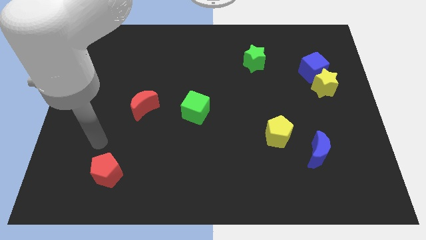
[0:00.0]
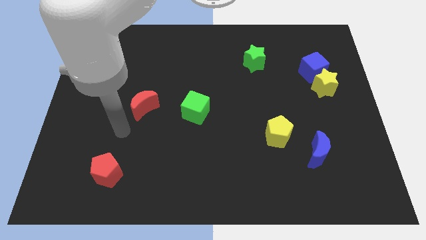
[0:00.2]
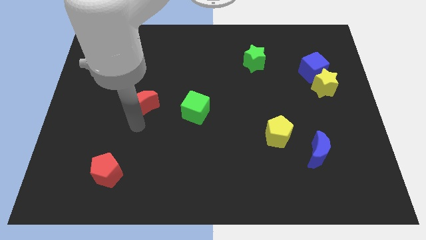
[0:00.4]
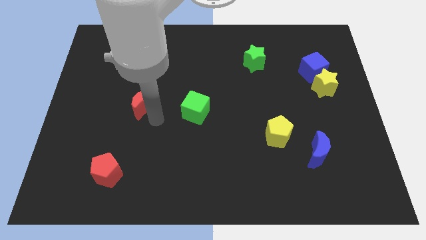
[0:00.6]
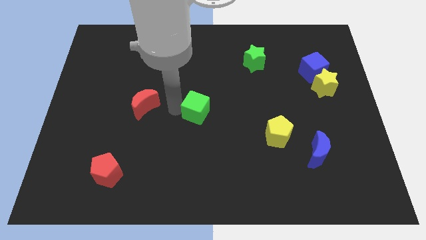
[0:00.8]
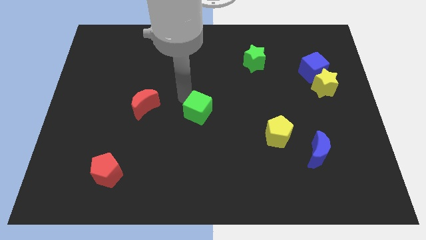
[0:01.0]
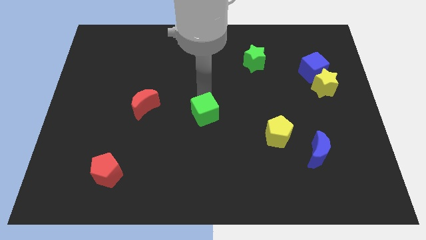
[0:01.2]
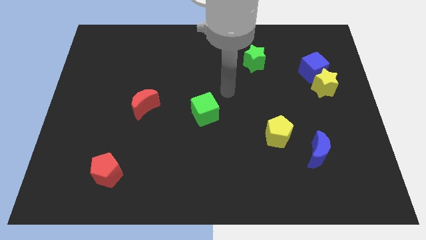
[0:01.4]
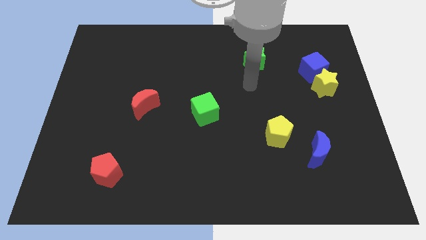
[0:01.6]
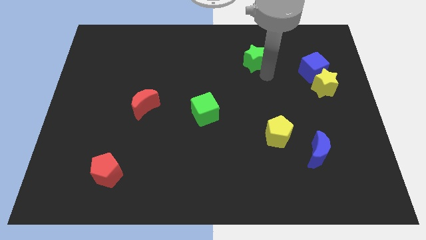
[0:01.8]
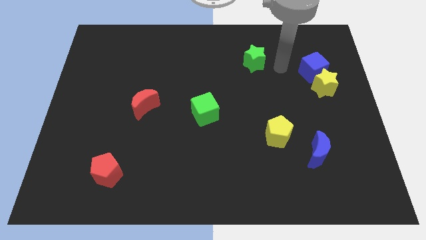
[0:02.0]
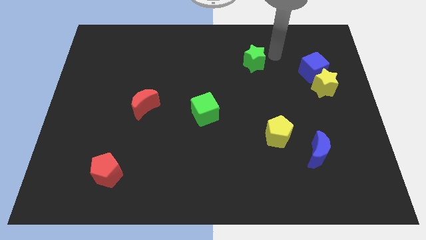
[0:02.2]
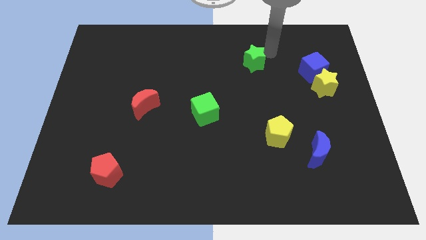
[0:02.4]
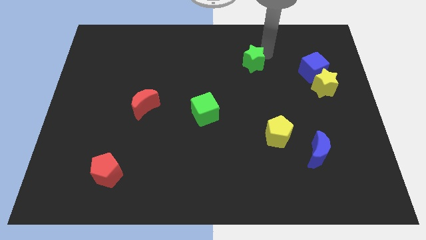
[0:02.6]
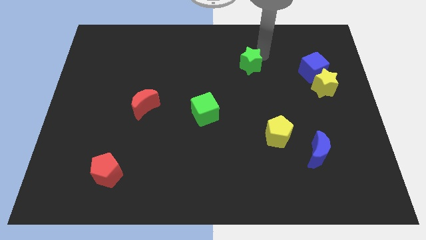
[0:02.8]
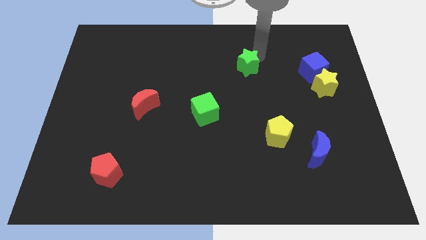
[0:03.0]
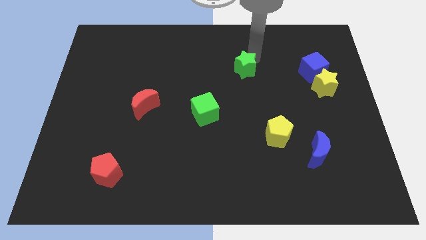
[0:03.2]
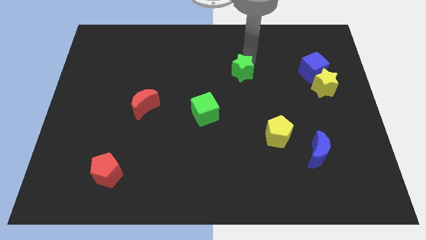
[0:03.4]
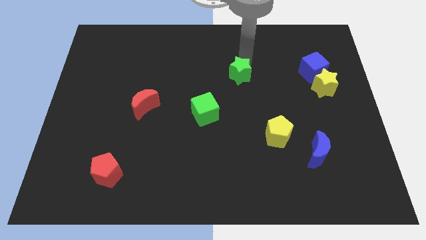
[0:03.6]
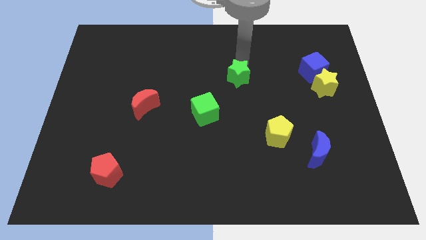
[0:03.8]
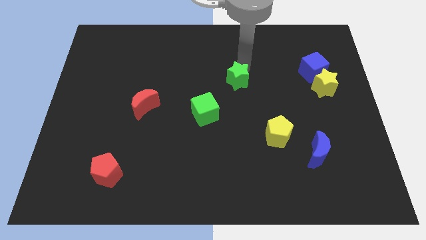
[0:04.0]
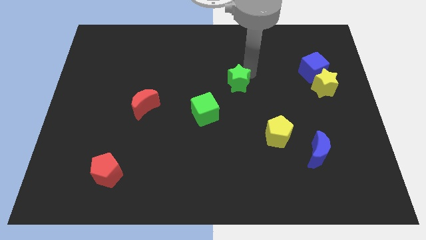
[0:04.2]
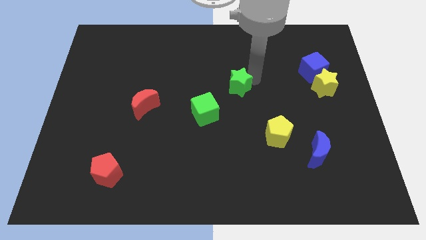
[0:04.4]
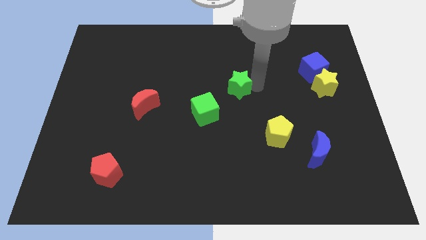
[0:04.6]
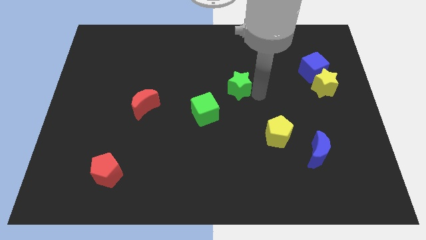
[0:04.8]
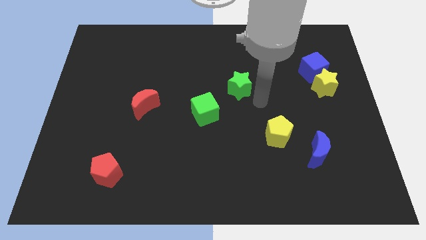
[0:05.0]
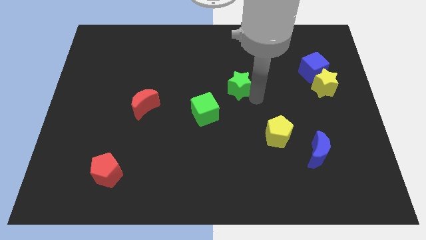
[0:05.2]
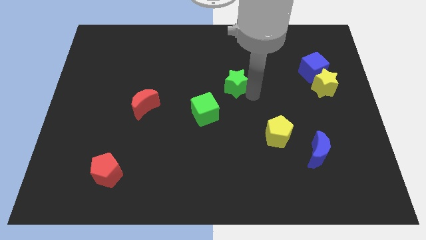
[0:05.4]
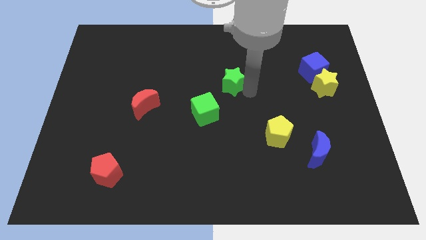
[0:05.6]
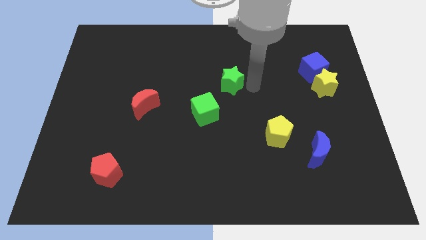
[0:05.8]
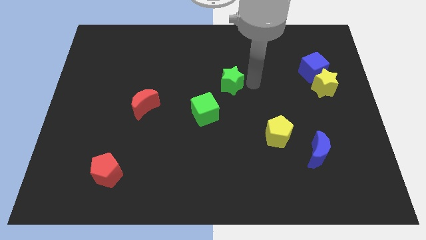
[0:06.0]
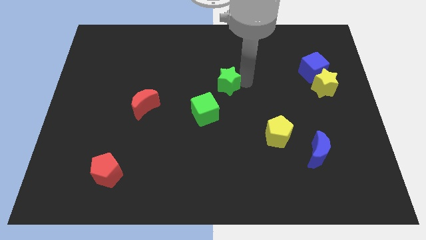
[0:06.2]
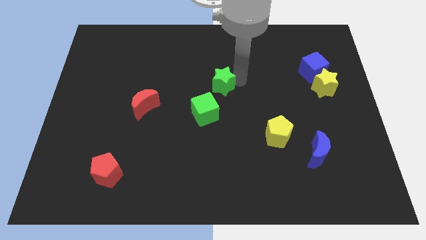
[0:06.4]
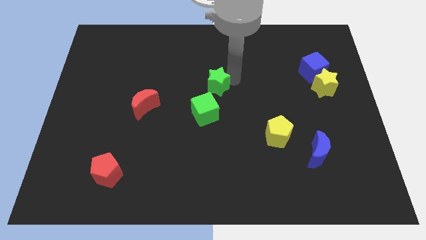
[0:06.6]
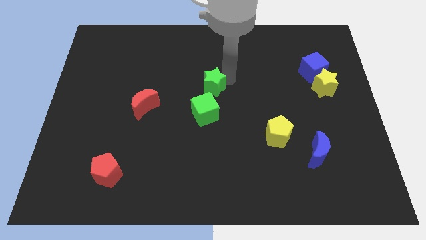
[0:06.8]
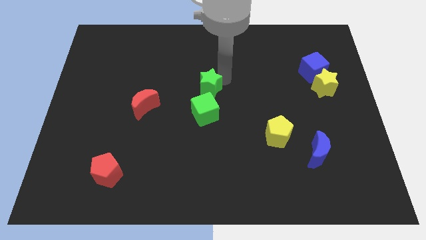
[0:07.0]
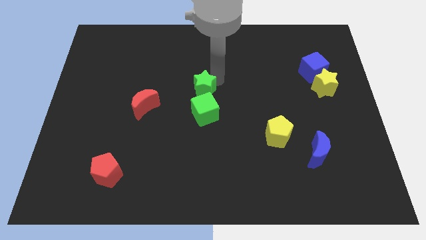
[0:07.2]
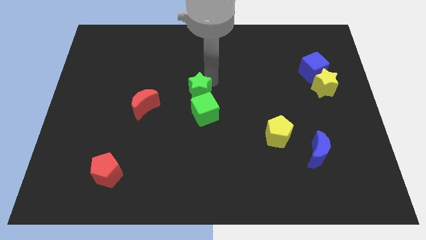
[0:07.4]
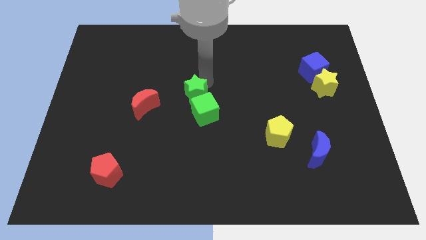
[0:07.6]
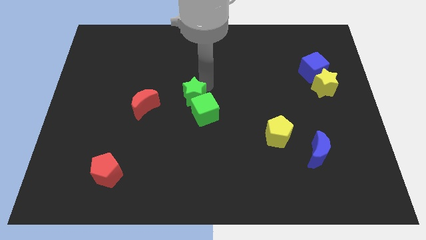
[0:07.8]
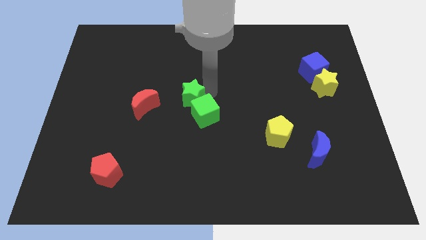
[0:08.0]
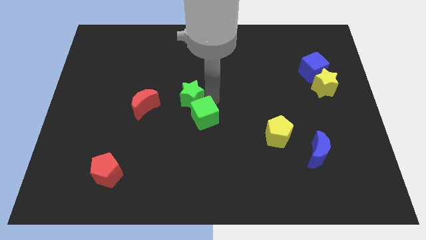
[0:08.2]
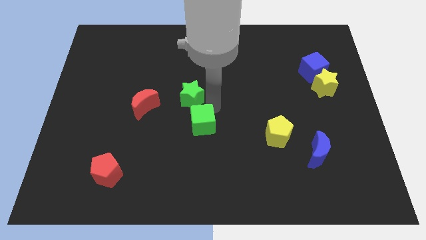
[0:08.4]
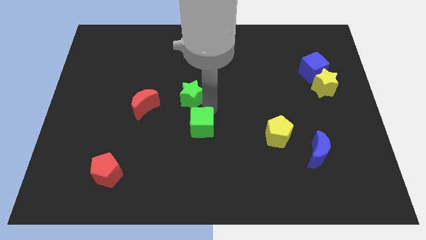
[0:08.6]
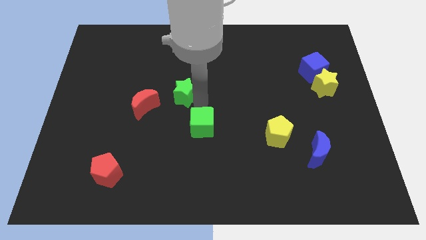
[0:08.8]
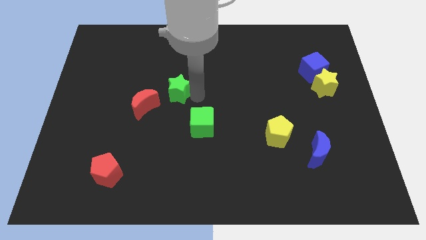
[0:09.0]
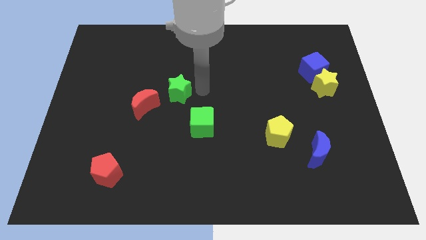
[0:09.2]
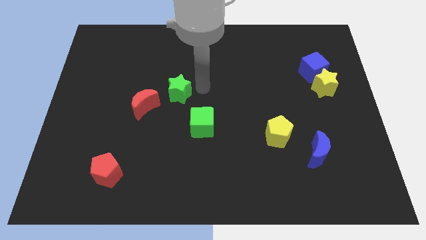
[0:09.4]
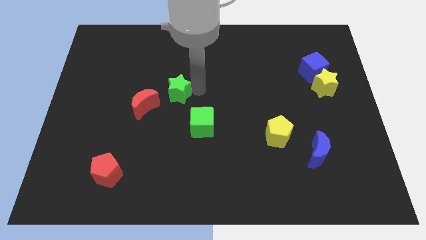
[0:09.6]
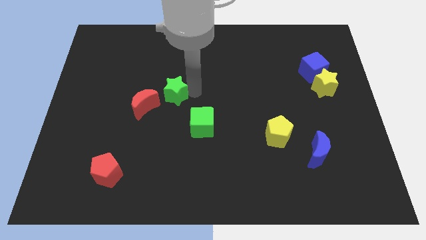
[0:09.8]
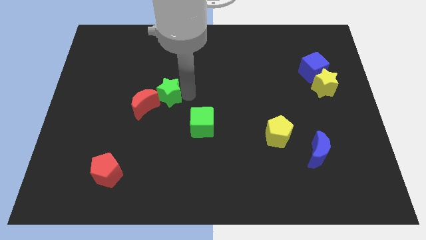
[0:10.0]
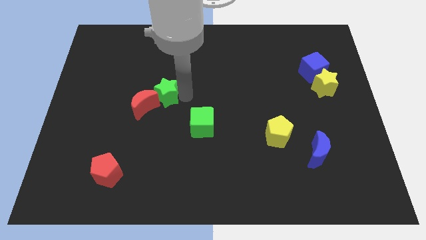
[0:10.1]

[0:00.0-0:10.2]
put the green star towards the red moon

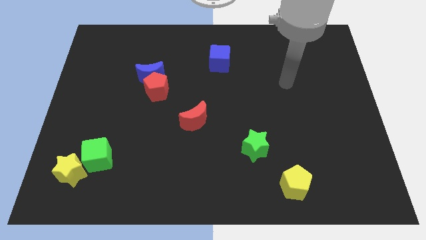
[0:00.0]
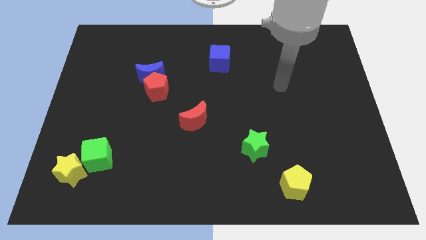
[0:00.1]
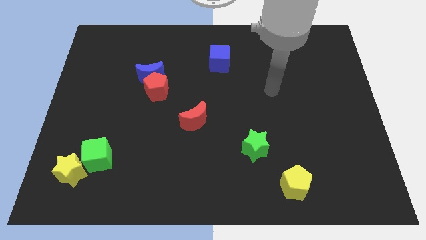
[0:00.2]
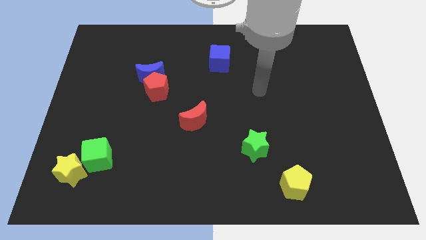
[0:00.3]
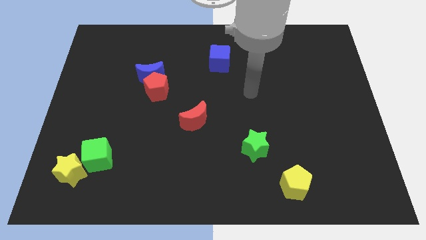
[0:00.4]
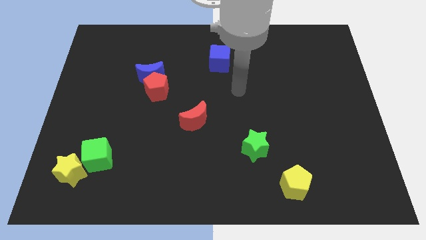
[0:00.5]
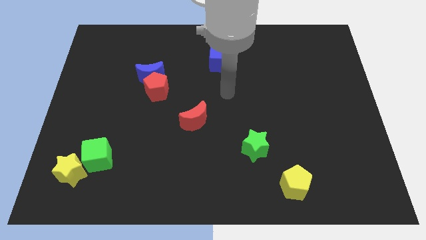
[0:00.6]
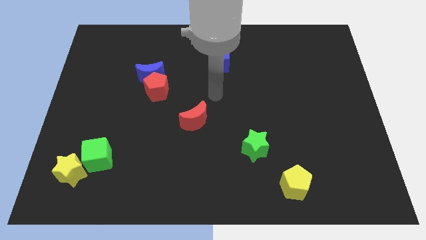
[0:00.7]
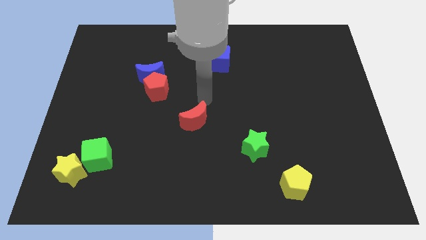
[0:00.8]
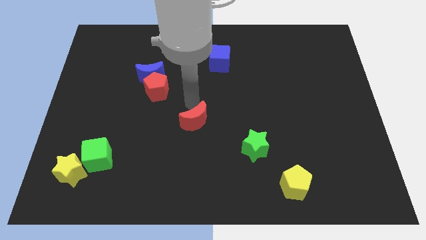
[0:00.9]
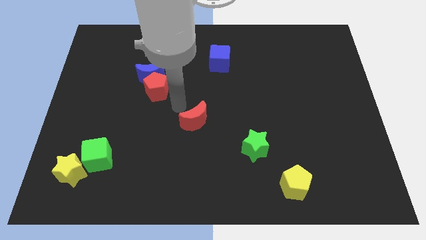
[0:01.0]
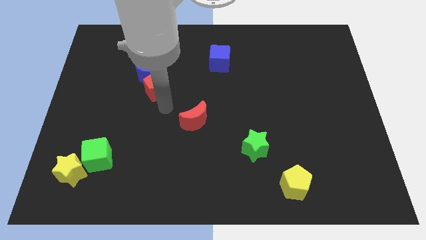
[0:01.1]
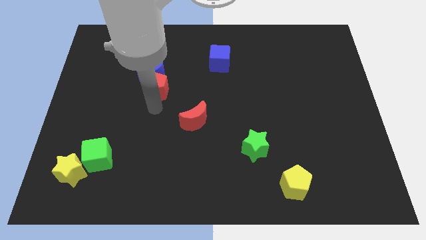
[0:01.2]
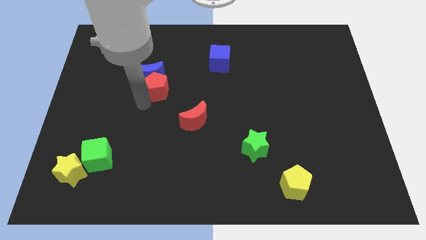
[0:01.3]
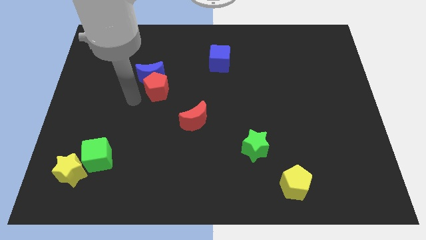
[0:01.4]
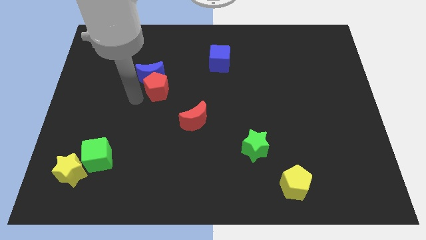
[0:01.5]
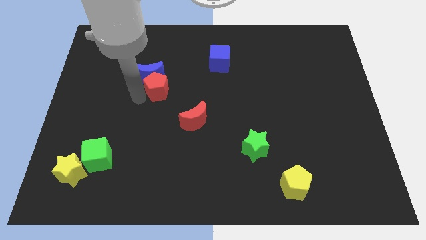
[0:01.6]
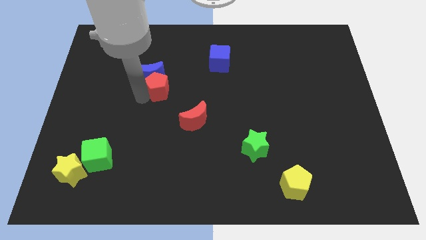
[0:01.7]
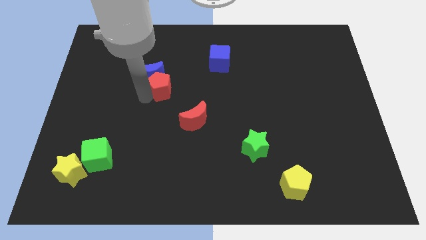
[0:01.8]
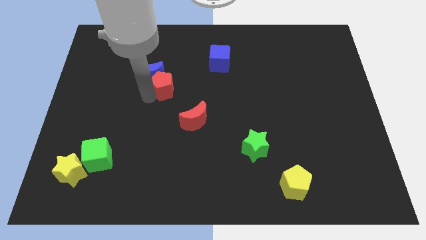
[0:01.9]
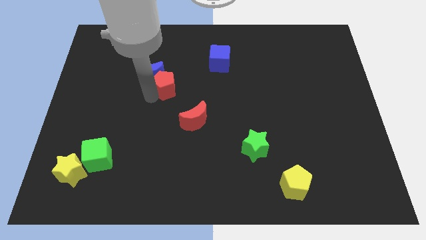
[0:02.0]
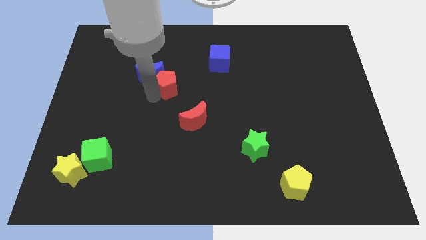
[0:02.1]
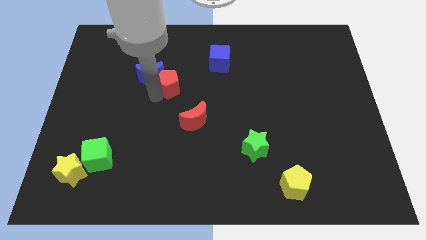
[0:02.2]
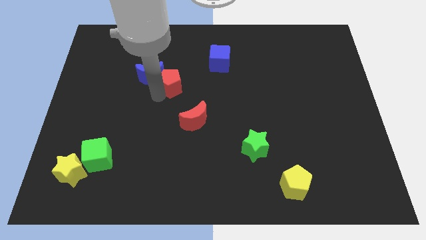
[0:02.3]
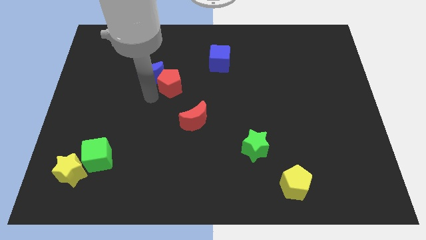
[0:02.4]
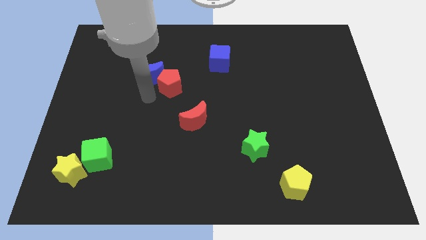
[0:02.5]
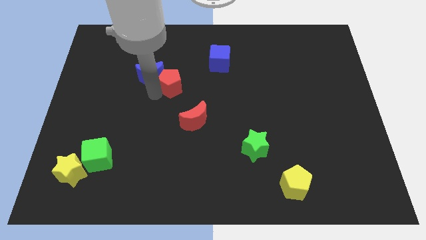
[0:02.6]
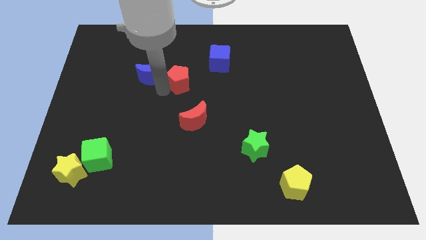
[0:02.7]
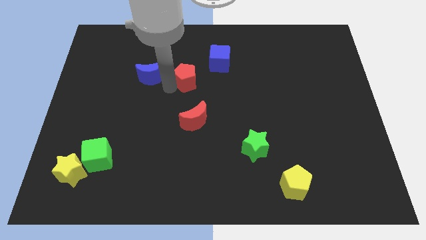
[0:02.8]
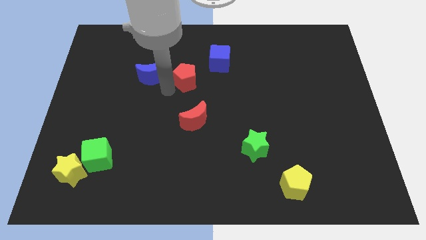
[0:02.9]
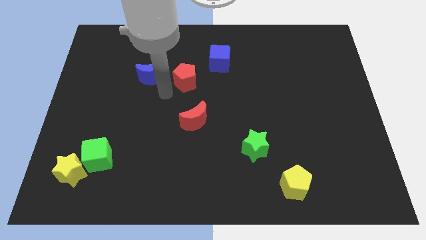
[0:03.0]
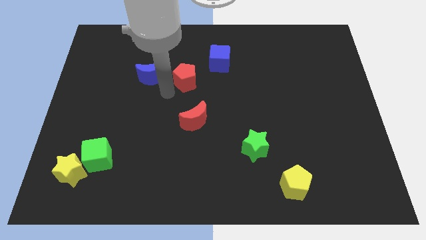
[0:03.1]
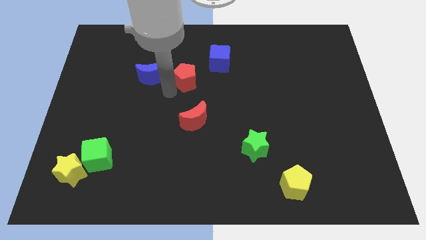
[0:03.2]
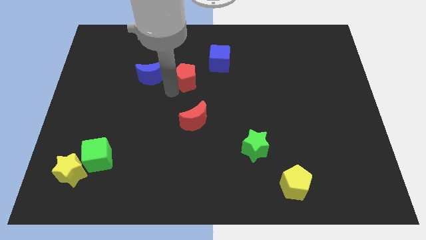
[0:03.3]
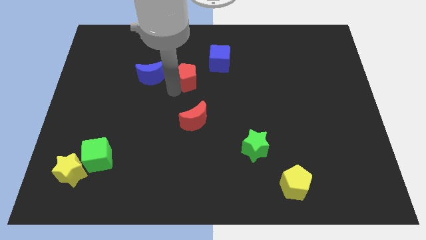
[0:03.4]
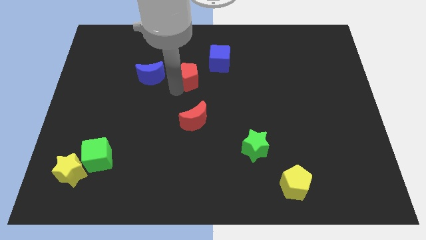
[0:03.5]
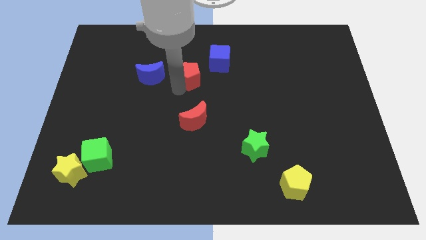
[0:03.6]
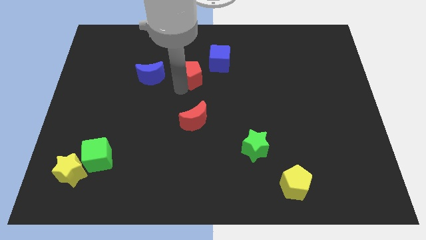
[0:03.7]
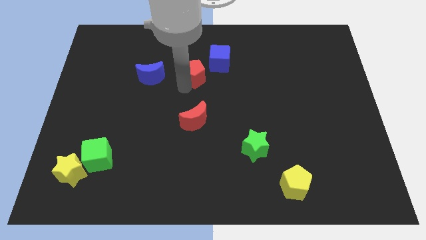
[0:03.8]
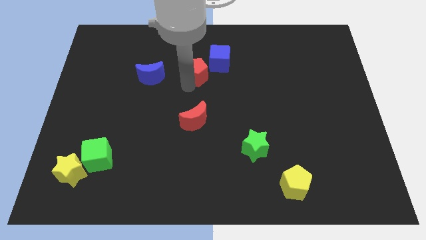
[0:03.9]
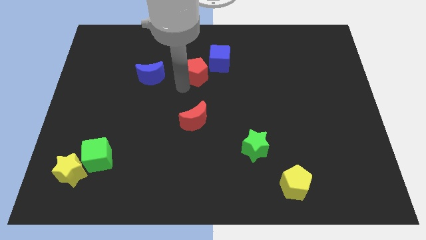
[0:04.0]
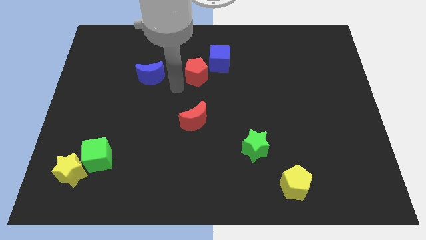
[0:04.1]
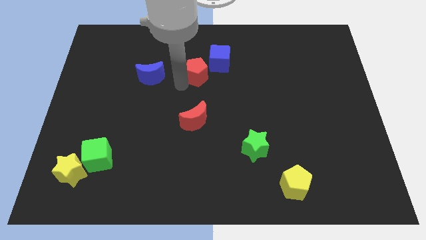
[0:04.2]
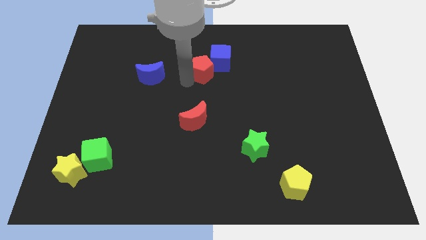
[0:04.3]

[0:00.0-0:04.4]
slide the red pentagon to the blue cube
